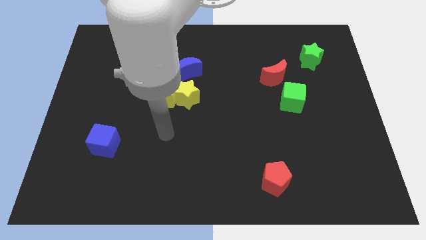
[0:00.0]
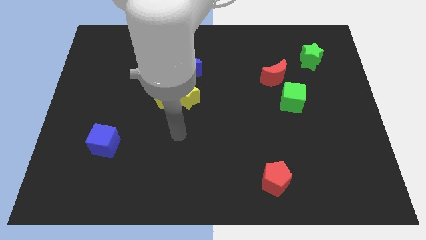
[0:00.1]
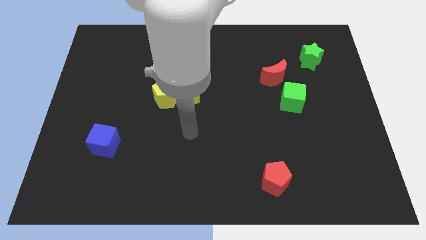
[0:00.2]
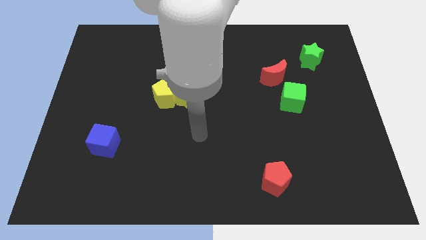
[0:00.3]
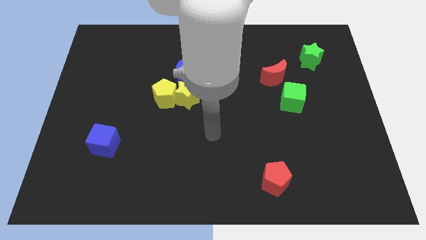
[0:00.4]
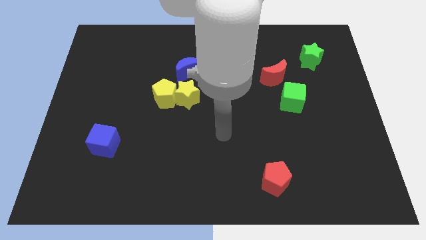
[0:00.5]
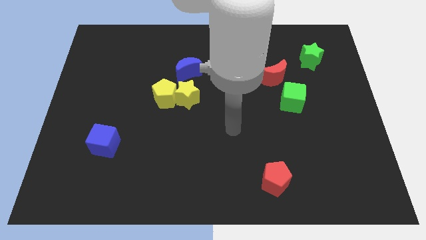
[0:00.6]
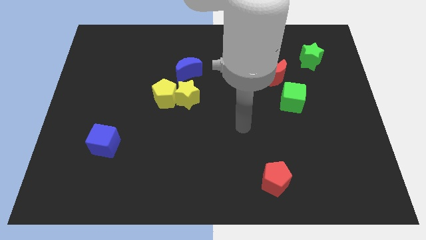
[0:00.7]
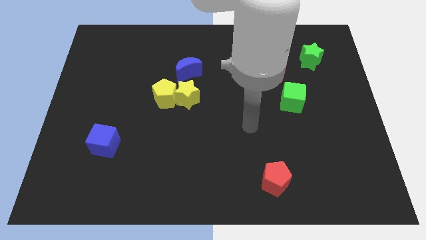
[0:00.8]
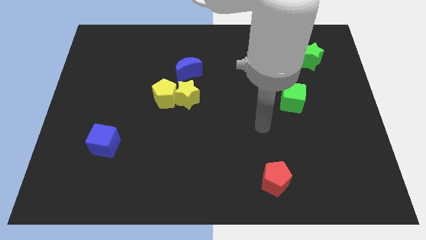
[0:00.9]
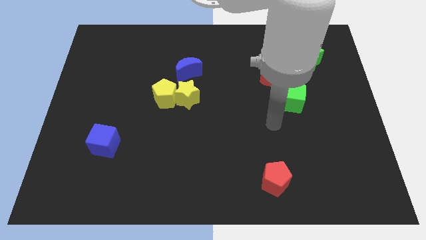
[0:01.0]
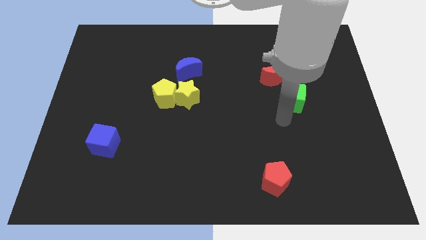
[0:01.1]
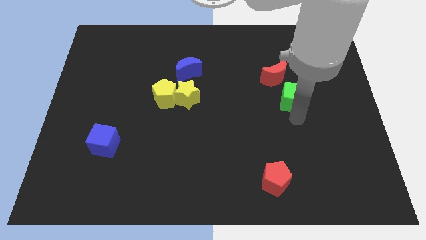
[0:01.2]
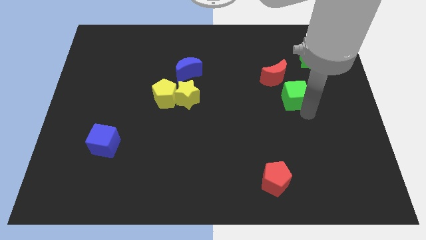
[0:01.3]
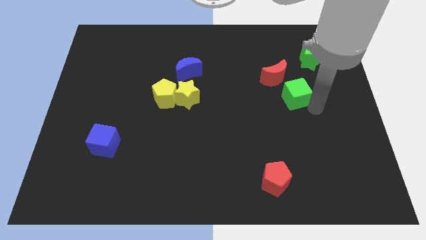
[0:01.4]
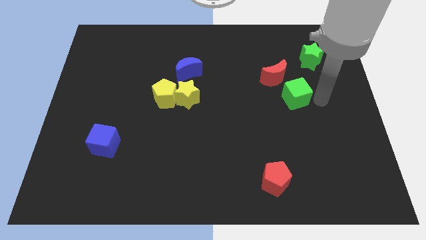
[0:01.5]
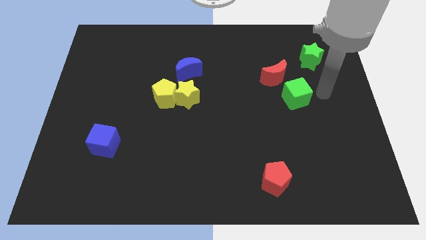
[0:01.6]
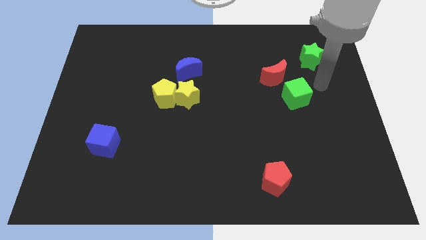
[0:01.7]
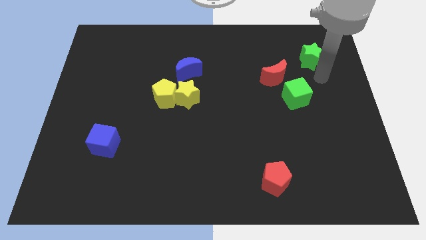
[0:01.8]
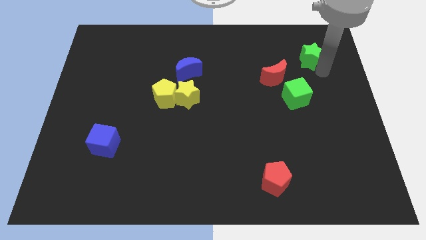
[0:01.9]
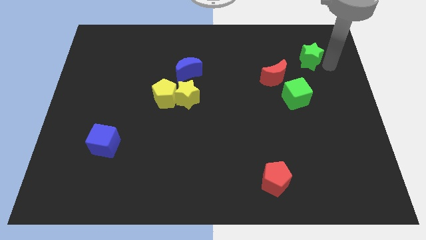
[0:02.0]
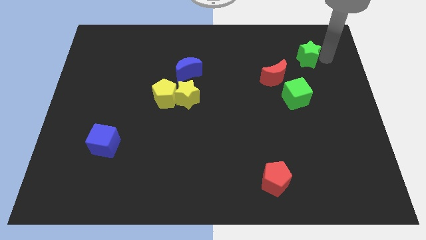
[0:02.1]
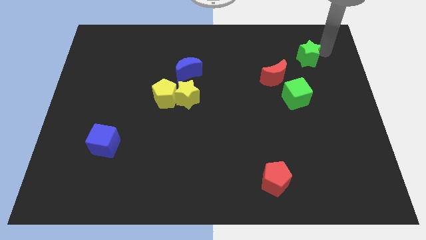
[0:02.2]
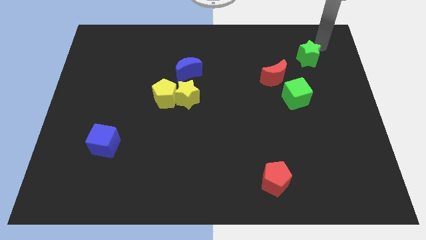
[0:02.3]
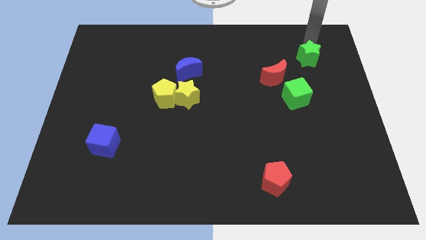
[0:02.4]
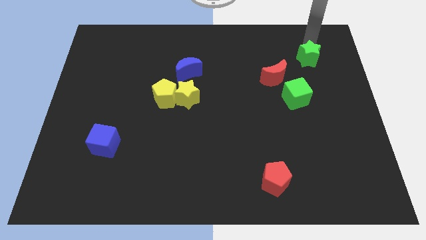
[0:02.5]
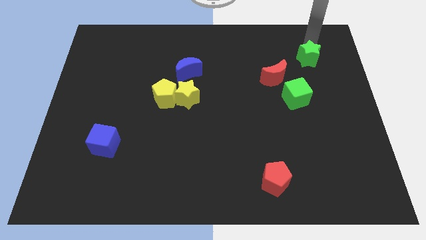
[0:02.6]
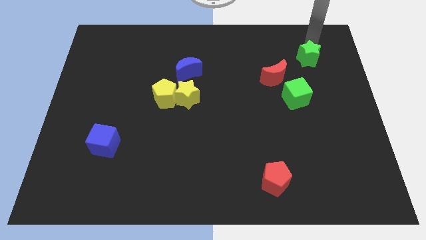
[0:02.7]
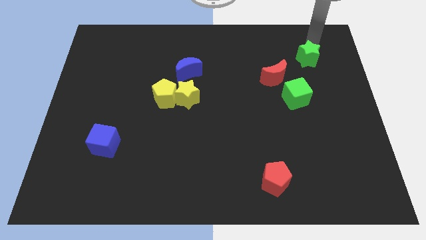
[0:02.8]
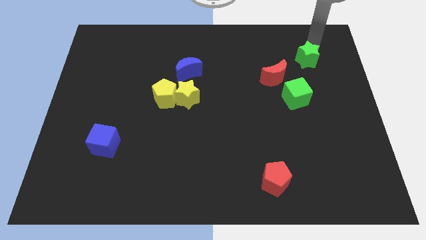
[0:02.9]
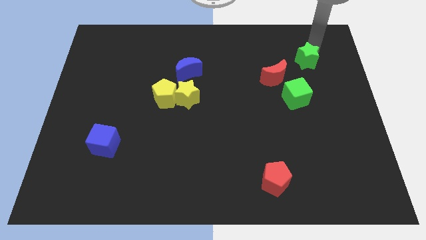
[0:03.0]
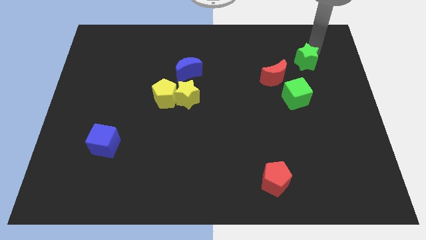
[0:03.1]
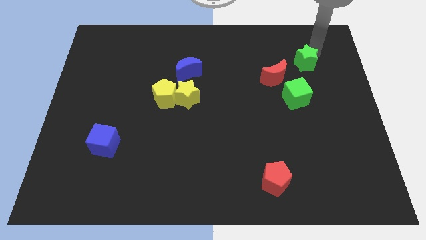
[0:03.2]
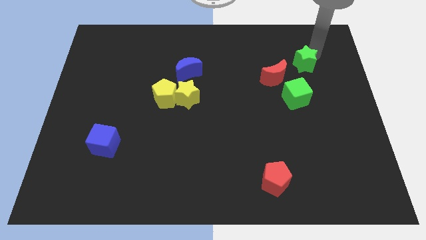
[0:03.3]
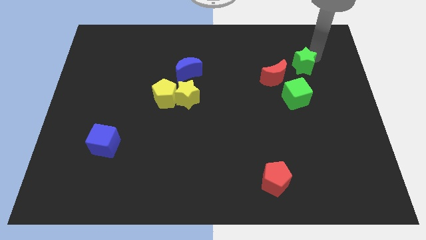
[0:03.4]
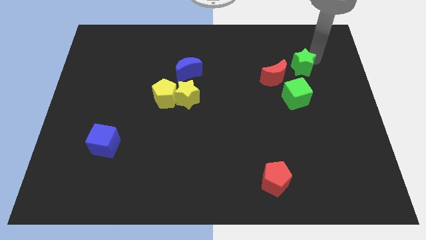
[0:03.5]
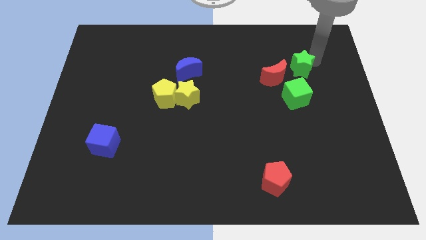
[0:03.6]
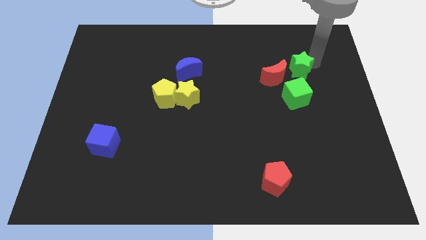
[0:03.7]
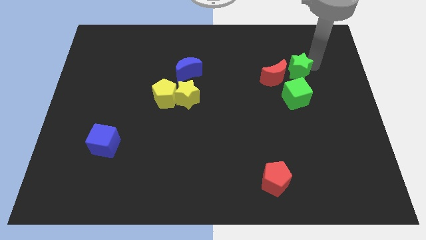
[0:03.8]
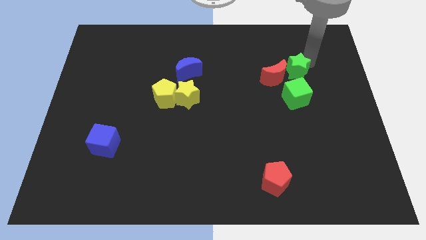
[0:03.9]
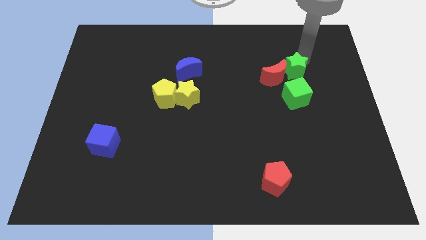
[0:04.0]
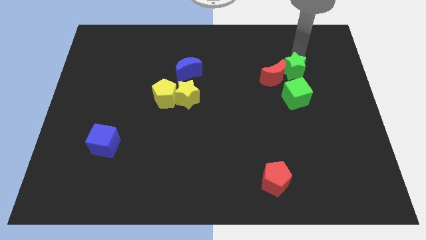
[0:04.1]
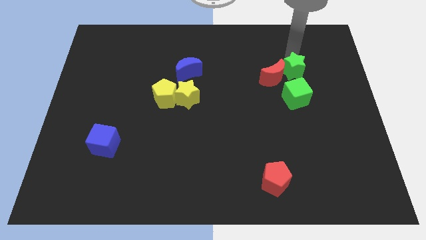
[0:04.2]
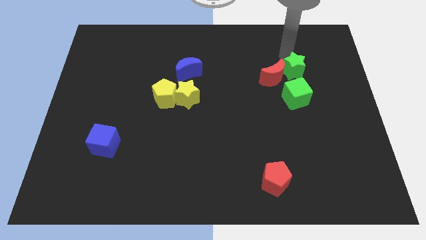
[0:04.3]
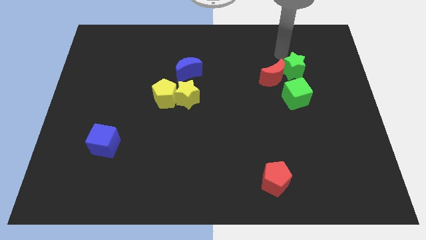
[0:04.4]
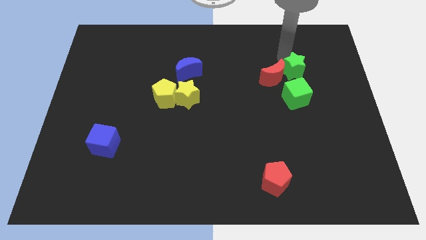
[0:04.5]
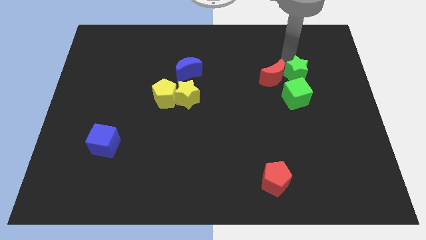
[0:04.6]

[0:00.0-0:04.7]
push the green star downwards and then to the left a bit

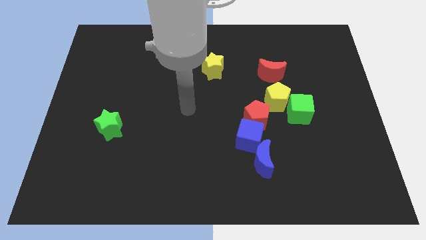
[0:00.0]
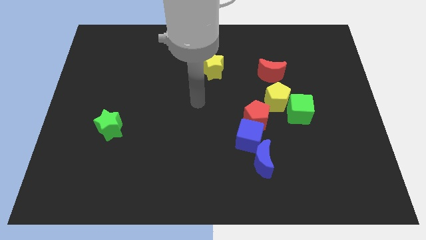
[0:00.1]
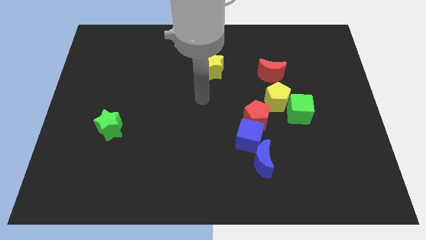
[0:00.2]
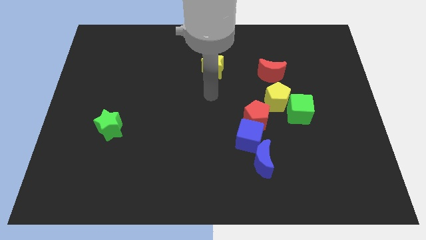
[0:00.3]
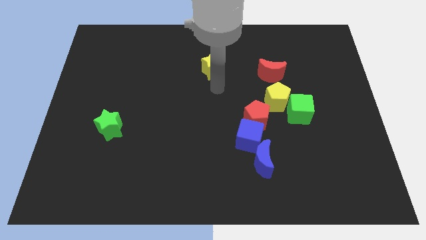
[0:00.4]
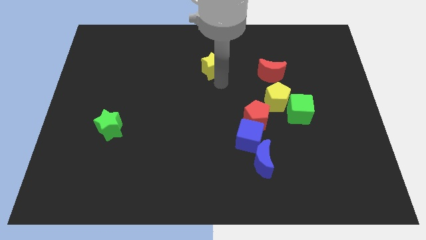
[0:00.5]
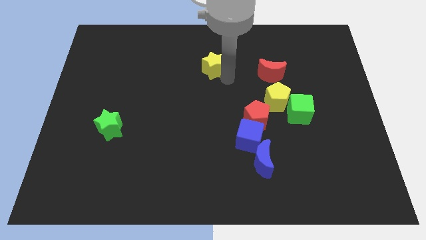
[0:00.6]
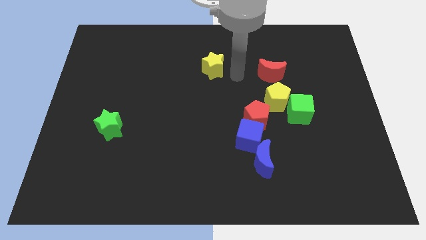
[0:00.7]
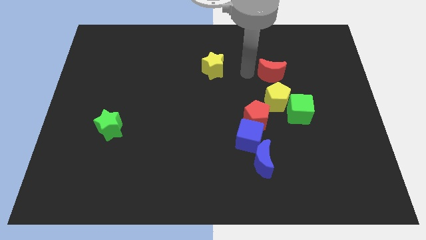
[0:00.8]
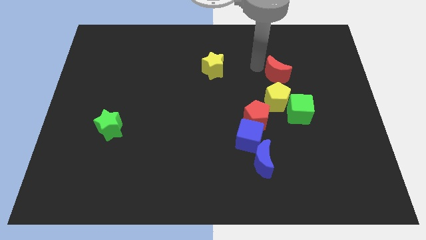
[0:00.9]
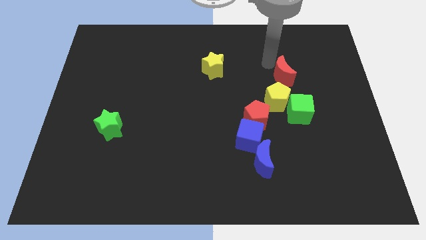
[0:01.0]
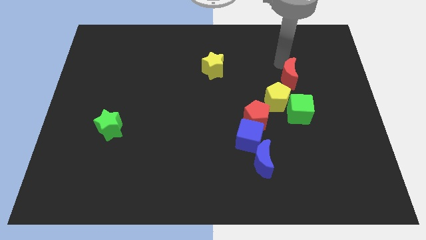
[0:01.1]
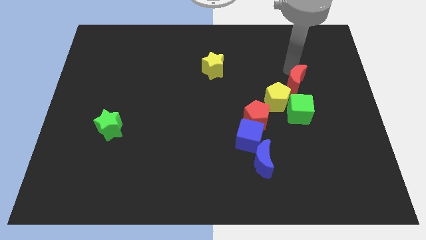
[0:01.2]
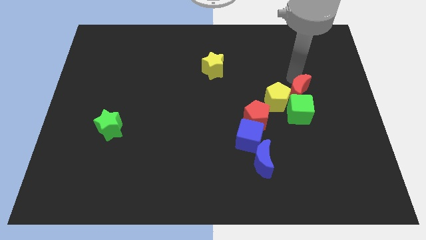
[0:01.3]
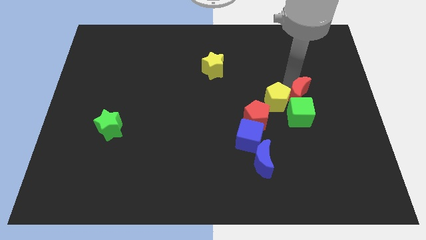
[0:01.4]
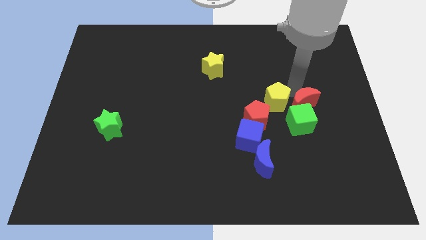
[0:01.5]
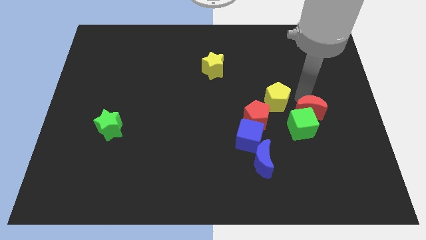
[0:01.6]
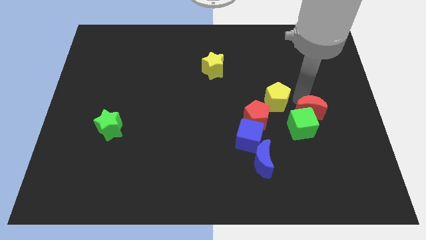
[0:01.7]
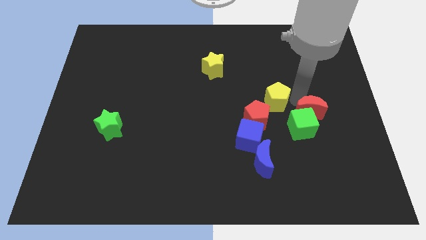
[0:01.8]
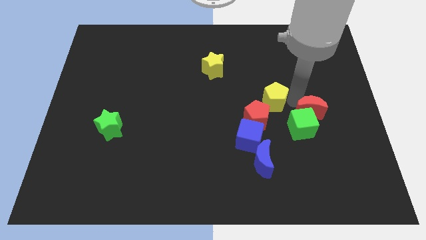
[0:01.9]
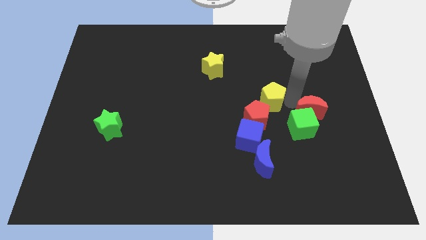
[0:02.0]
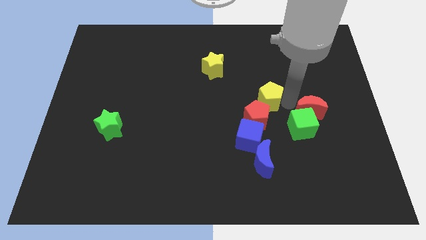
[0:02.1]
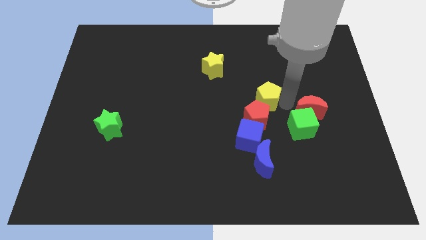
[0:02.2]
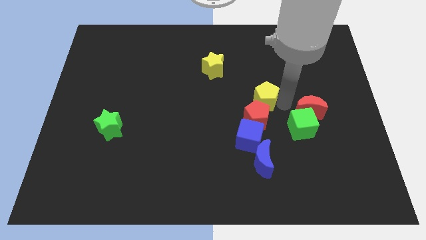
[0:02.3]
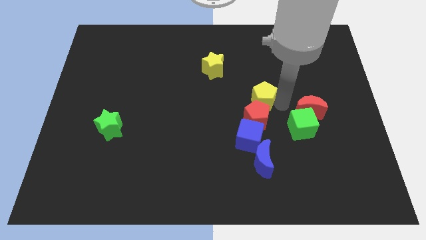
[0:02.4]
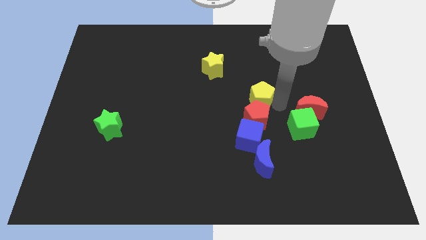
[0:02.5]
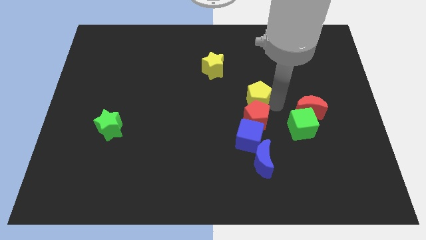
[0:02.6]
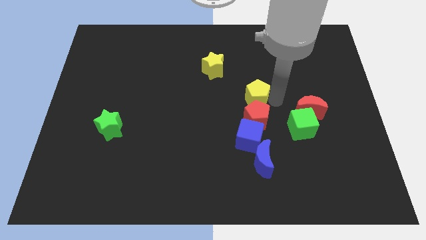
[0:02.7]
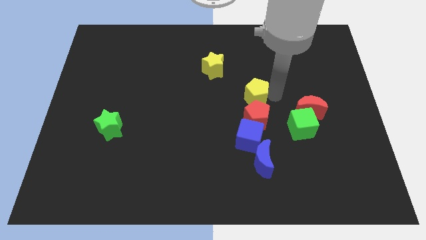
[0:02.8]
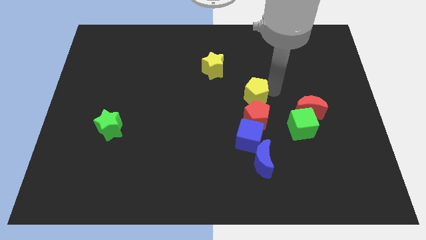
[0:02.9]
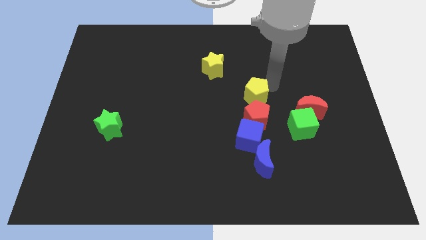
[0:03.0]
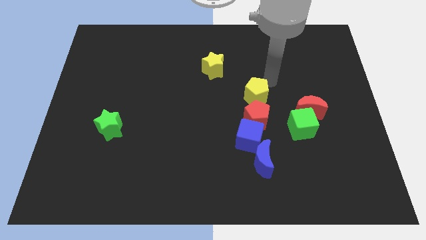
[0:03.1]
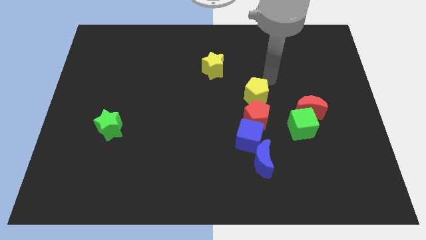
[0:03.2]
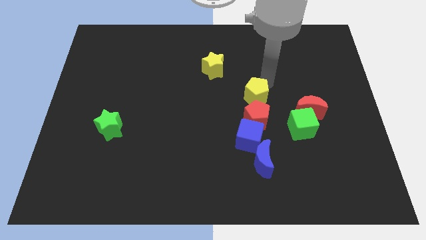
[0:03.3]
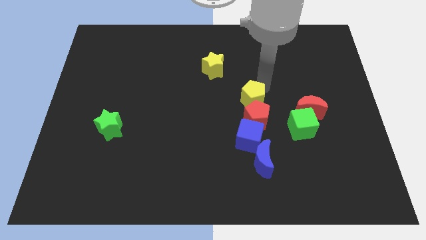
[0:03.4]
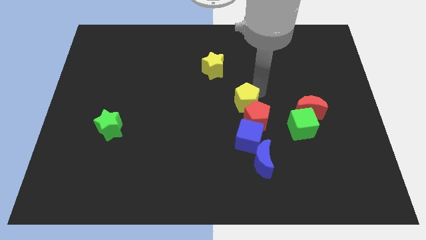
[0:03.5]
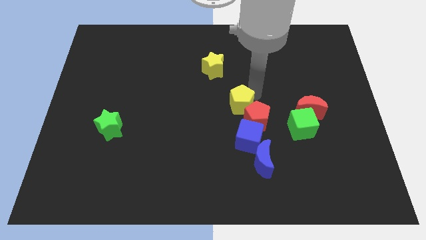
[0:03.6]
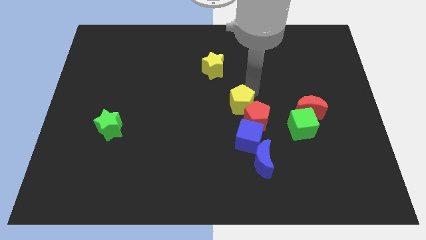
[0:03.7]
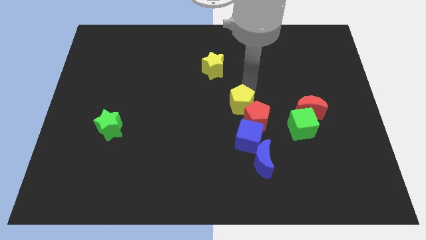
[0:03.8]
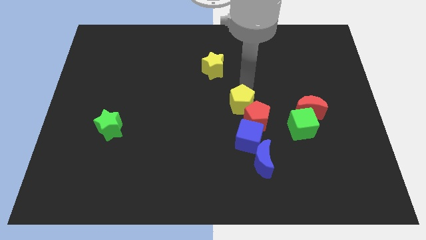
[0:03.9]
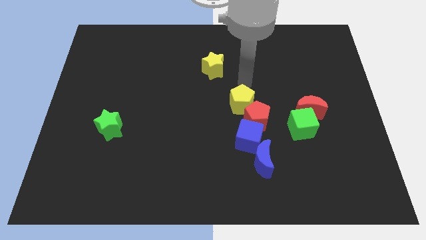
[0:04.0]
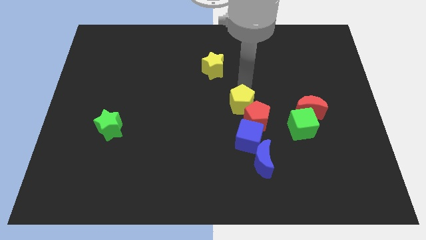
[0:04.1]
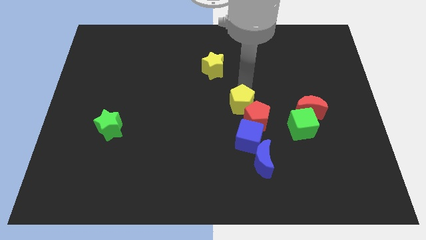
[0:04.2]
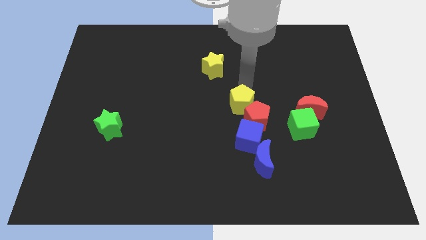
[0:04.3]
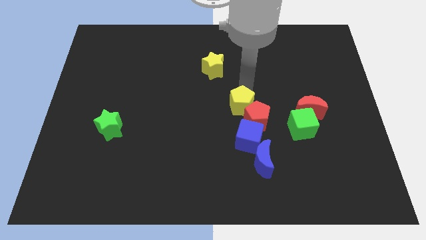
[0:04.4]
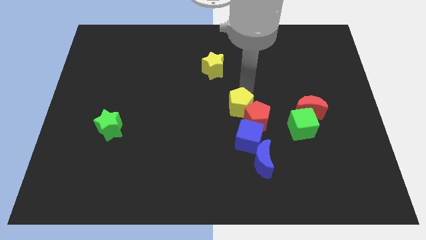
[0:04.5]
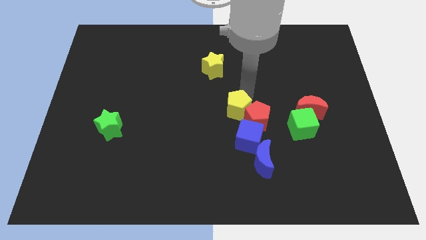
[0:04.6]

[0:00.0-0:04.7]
slightly move the yellow pentagon downwards and then to the left
